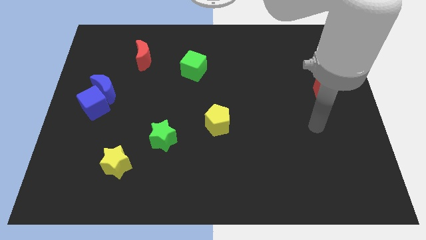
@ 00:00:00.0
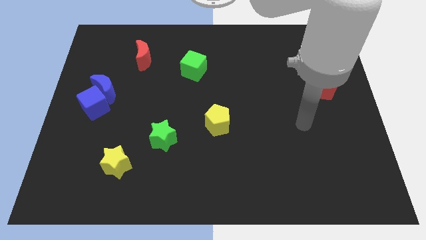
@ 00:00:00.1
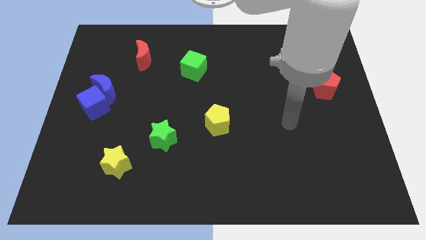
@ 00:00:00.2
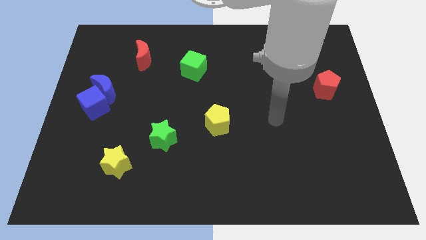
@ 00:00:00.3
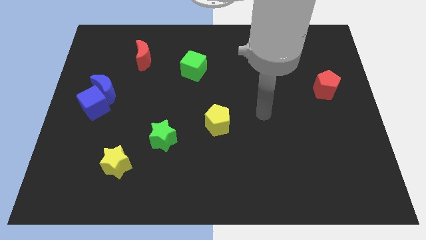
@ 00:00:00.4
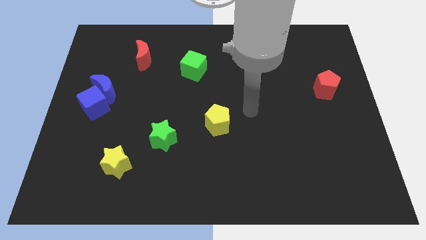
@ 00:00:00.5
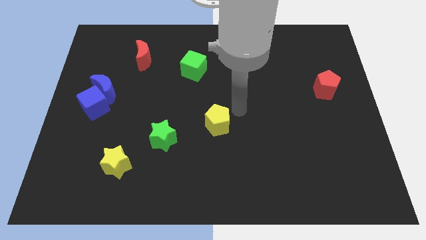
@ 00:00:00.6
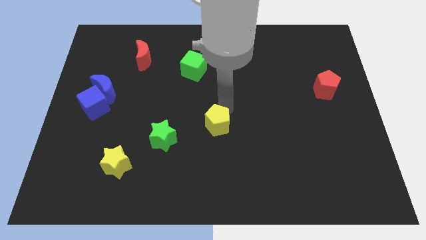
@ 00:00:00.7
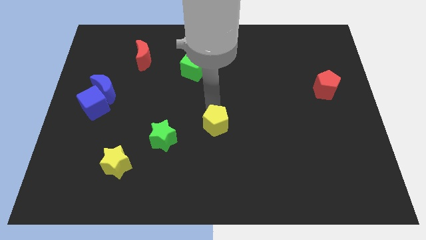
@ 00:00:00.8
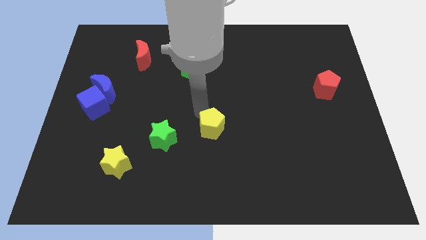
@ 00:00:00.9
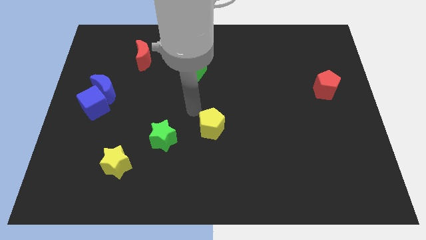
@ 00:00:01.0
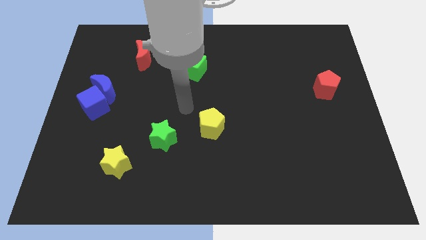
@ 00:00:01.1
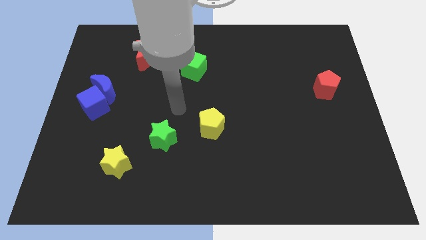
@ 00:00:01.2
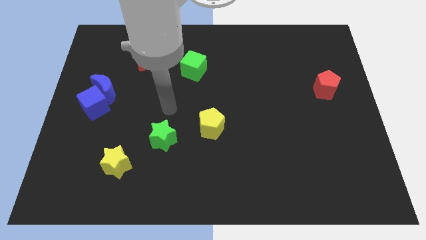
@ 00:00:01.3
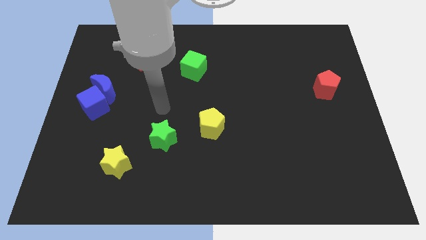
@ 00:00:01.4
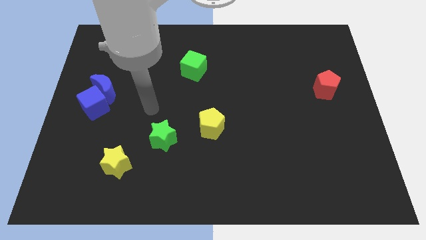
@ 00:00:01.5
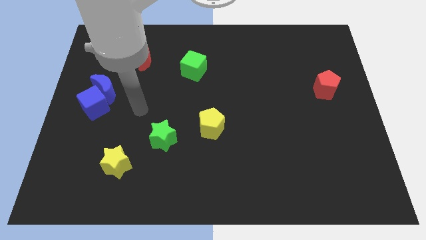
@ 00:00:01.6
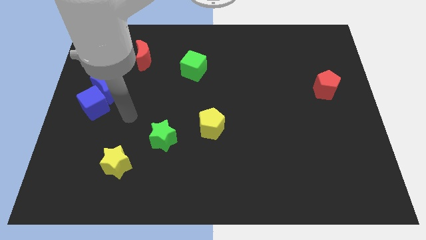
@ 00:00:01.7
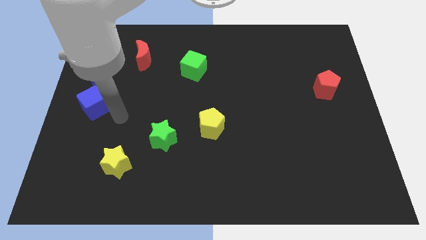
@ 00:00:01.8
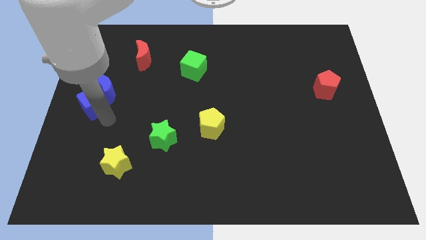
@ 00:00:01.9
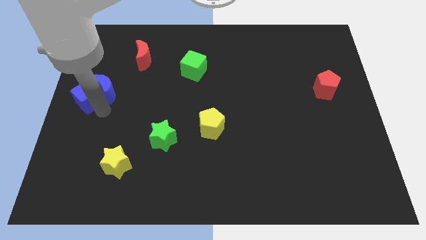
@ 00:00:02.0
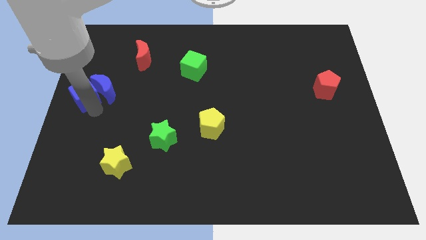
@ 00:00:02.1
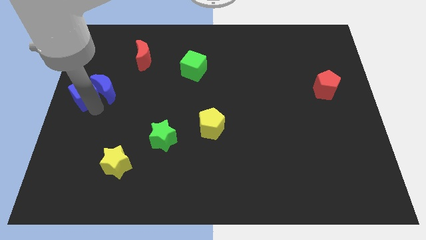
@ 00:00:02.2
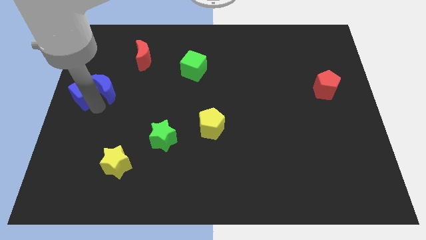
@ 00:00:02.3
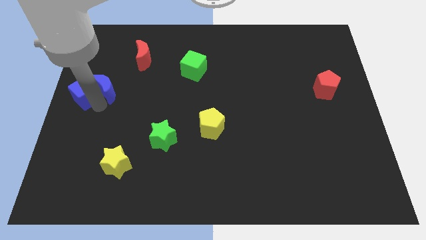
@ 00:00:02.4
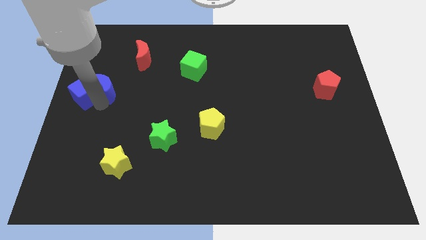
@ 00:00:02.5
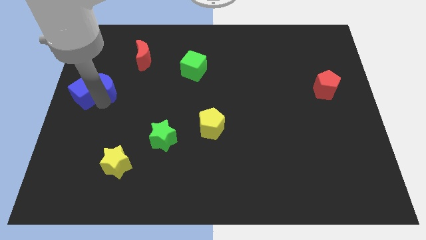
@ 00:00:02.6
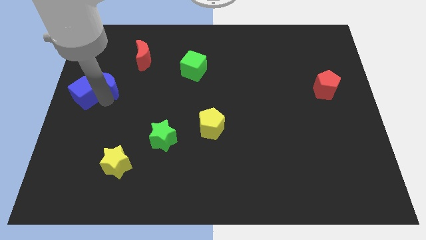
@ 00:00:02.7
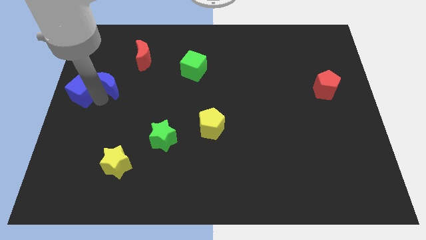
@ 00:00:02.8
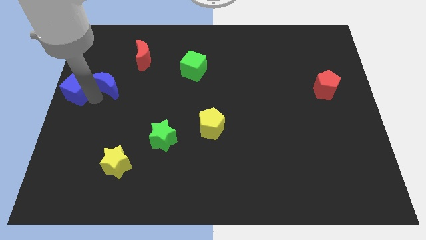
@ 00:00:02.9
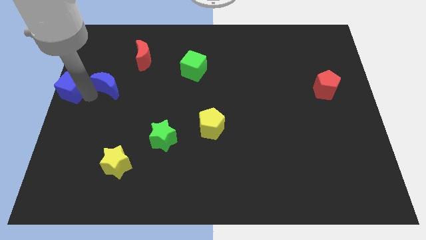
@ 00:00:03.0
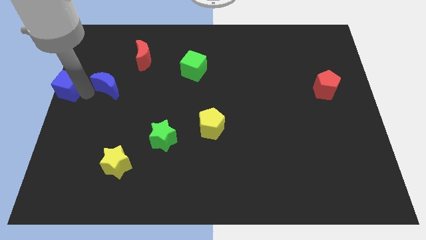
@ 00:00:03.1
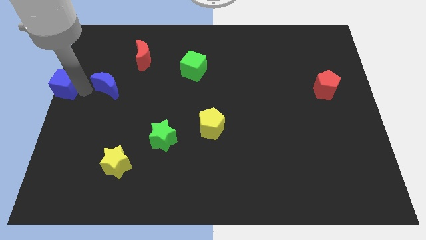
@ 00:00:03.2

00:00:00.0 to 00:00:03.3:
move the blue moon away from the blue cube

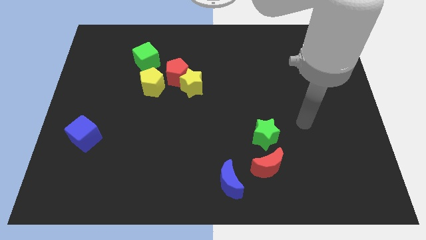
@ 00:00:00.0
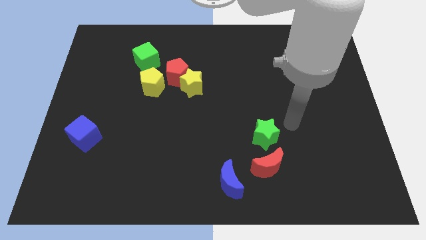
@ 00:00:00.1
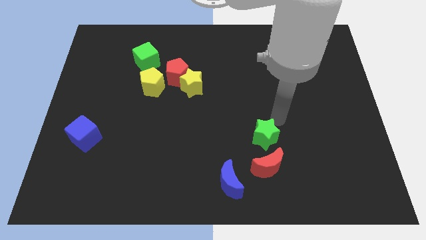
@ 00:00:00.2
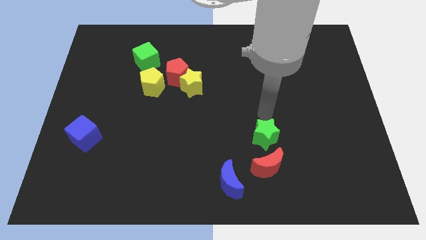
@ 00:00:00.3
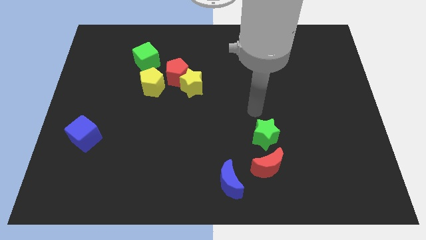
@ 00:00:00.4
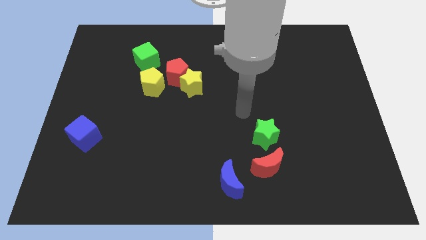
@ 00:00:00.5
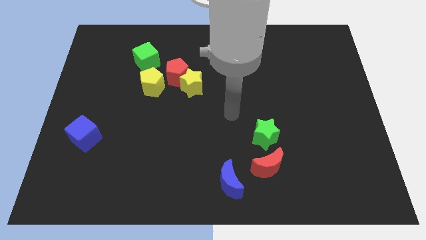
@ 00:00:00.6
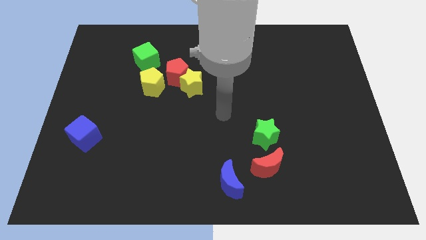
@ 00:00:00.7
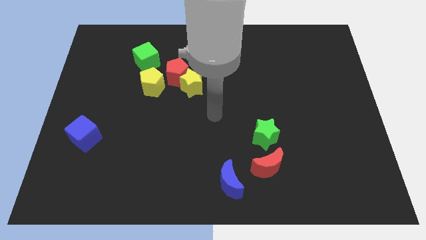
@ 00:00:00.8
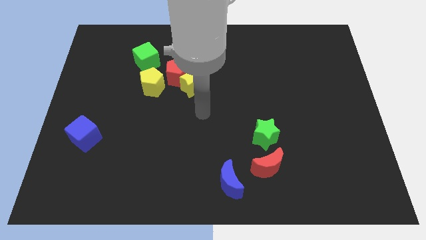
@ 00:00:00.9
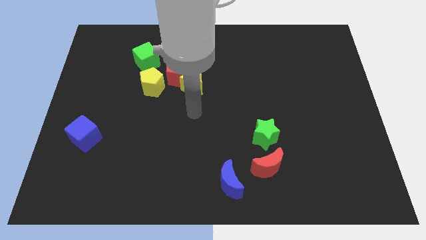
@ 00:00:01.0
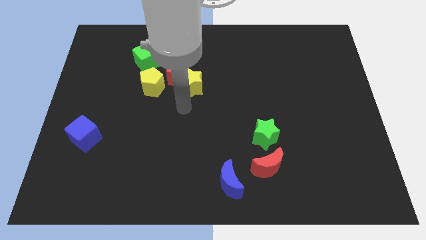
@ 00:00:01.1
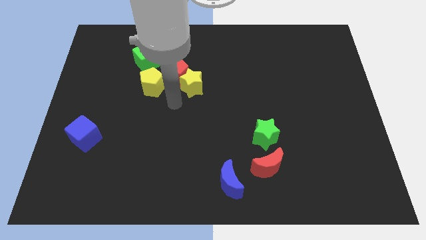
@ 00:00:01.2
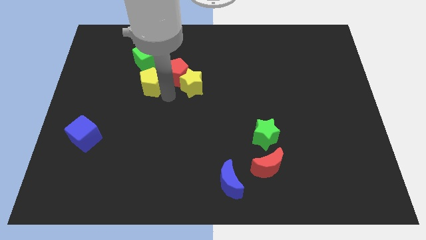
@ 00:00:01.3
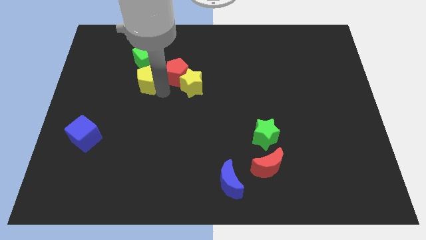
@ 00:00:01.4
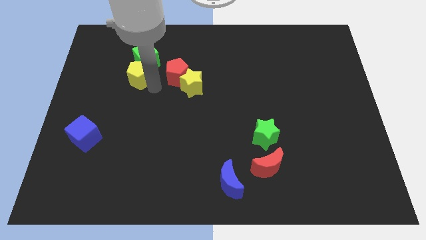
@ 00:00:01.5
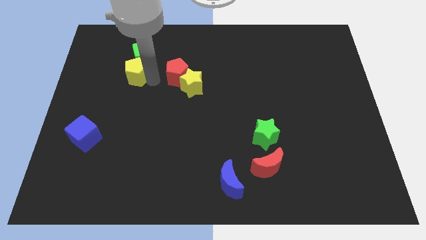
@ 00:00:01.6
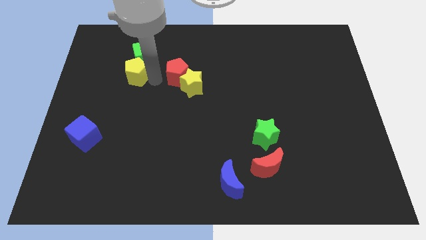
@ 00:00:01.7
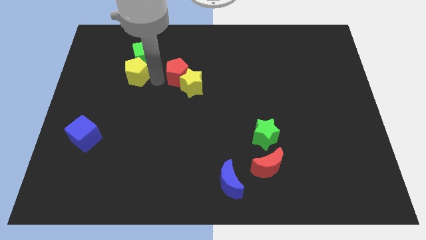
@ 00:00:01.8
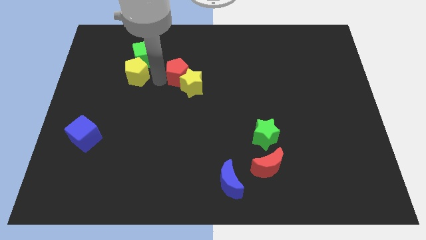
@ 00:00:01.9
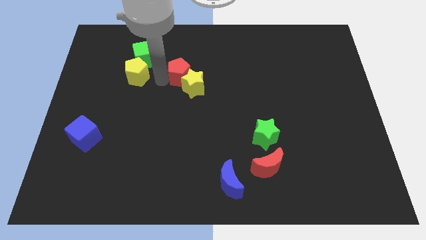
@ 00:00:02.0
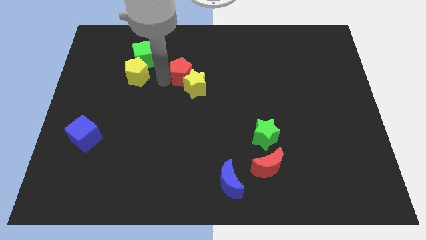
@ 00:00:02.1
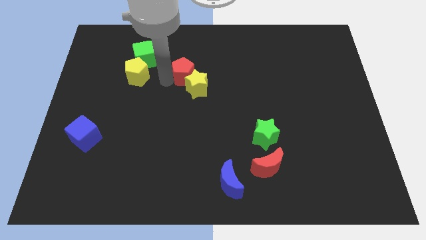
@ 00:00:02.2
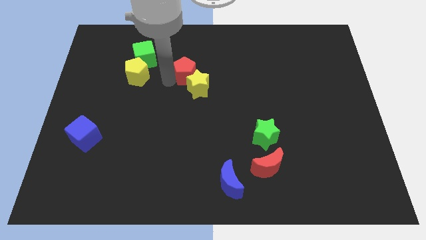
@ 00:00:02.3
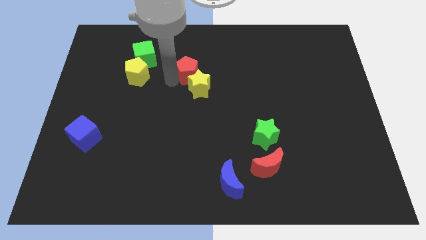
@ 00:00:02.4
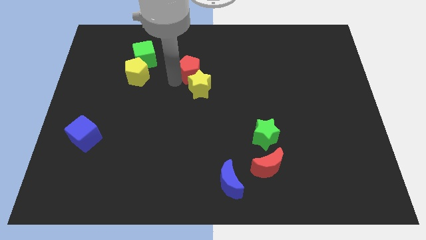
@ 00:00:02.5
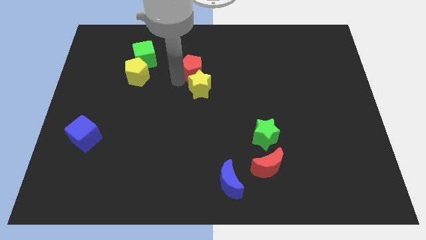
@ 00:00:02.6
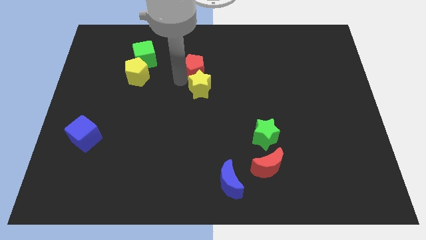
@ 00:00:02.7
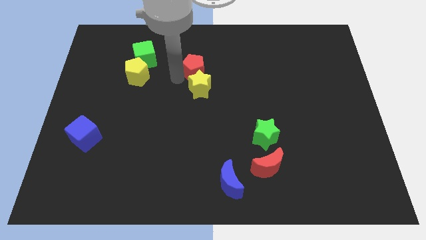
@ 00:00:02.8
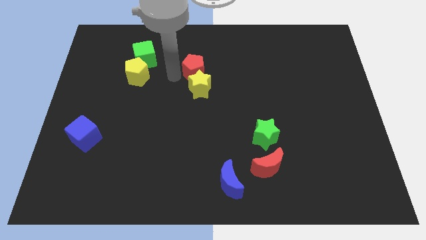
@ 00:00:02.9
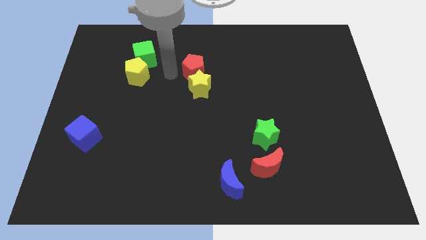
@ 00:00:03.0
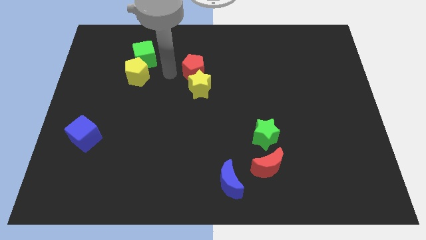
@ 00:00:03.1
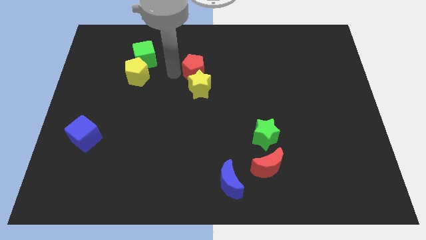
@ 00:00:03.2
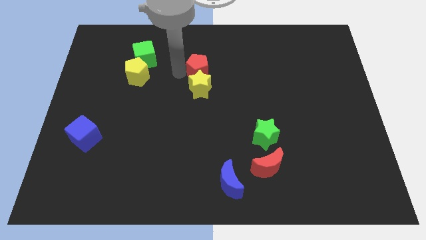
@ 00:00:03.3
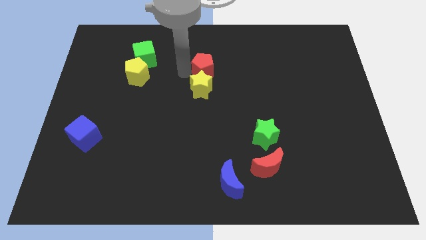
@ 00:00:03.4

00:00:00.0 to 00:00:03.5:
separate the red pentagon from the group of blocks

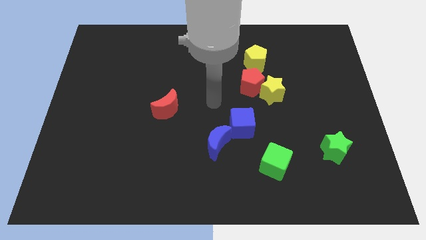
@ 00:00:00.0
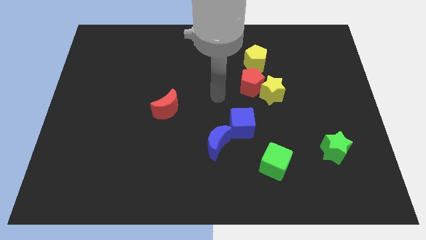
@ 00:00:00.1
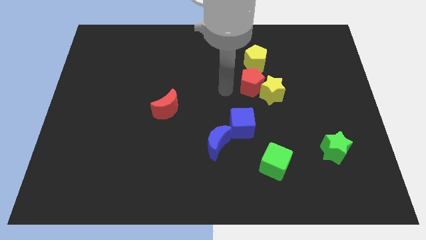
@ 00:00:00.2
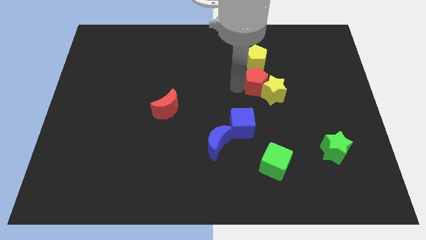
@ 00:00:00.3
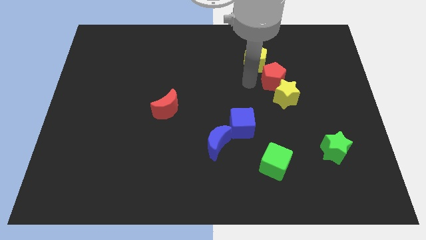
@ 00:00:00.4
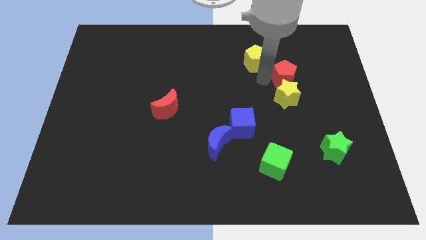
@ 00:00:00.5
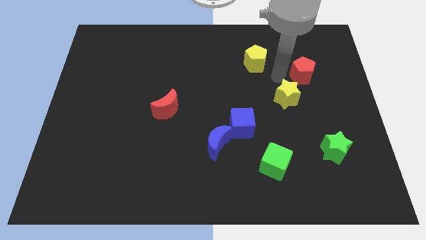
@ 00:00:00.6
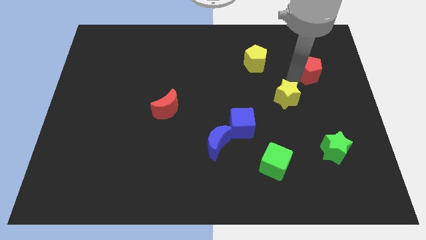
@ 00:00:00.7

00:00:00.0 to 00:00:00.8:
separate the yellow star from the red pentagon

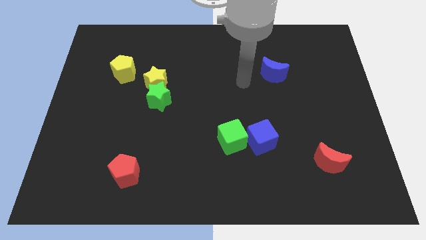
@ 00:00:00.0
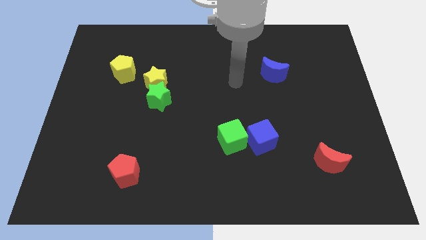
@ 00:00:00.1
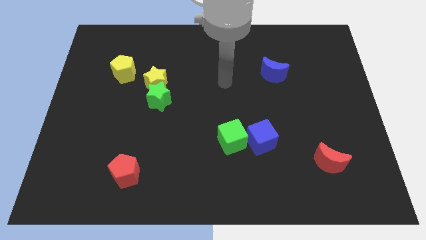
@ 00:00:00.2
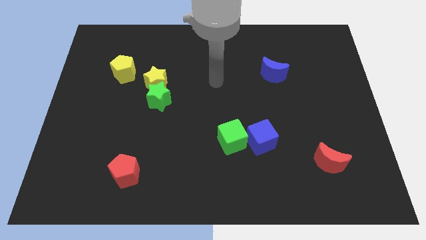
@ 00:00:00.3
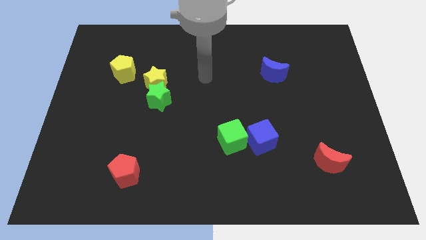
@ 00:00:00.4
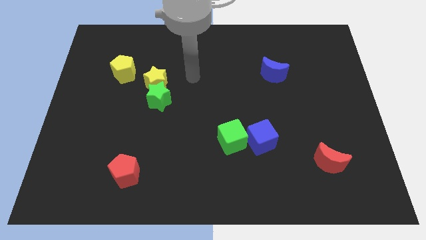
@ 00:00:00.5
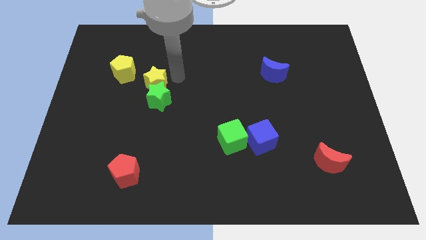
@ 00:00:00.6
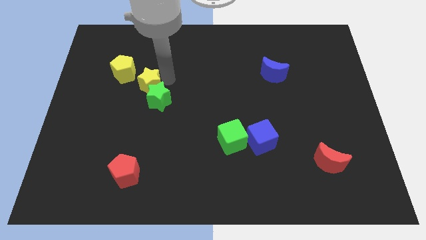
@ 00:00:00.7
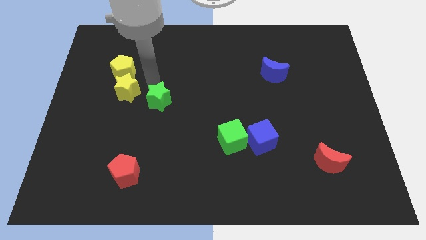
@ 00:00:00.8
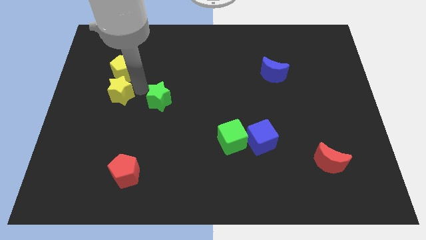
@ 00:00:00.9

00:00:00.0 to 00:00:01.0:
move the green star away from the yellow star

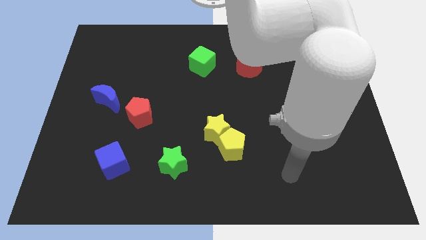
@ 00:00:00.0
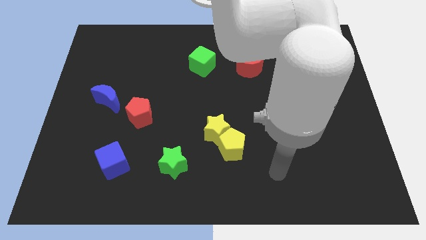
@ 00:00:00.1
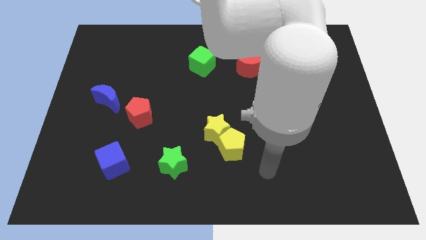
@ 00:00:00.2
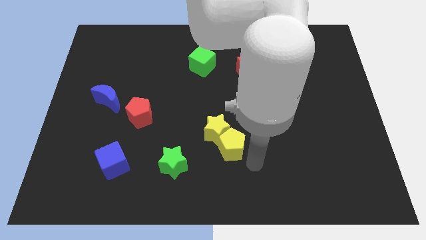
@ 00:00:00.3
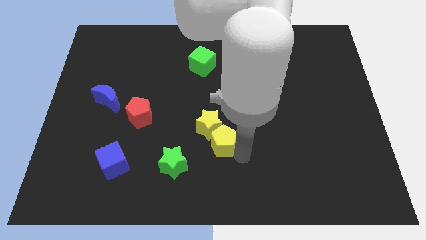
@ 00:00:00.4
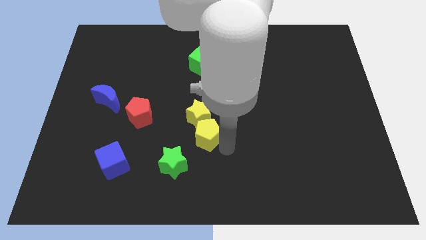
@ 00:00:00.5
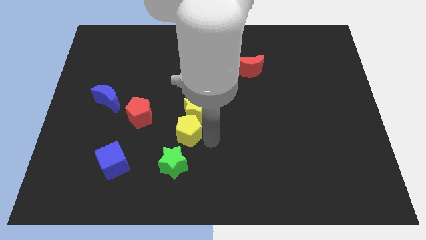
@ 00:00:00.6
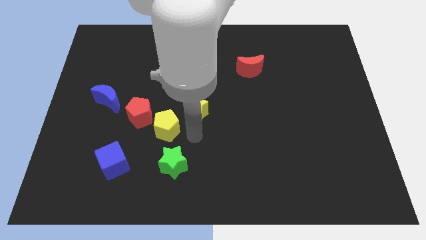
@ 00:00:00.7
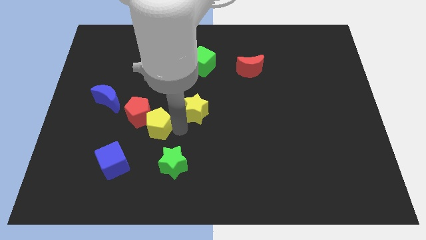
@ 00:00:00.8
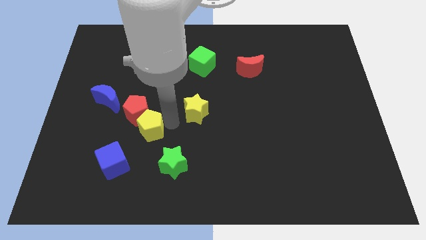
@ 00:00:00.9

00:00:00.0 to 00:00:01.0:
move the yellow star away from the yellow pentagon
